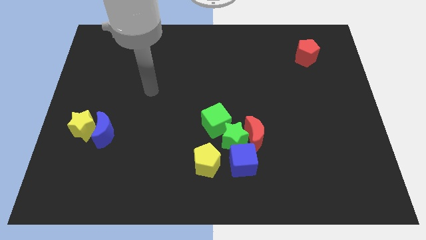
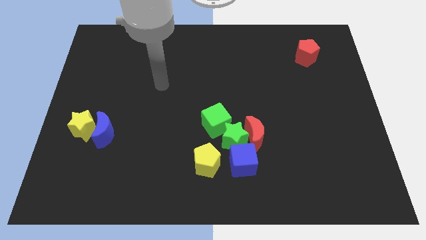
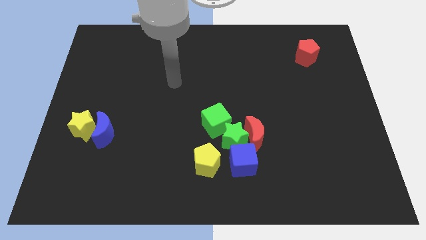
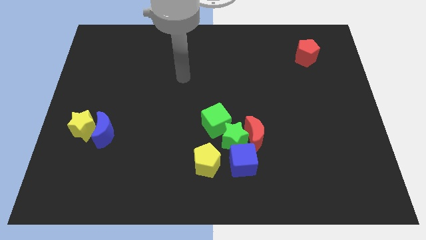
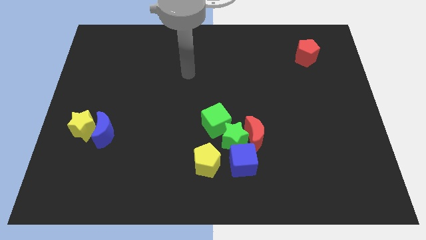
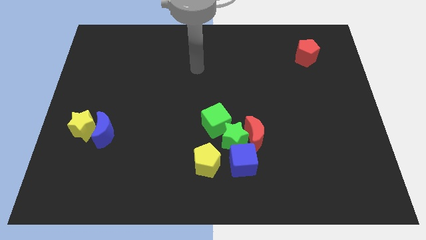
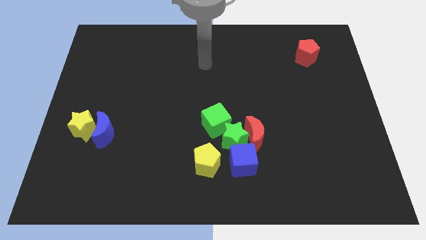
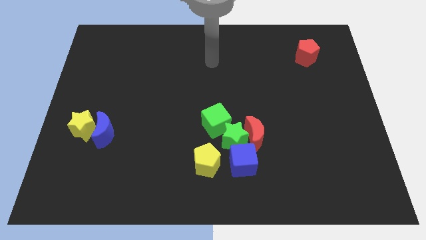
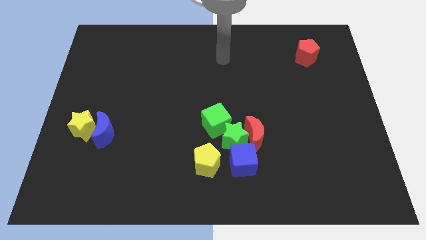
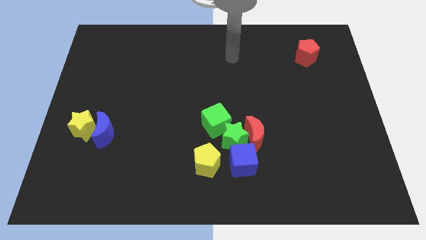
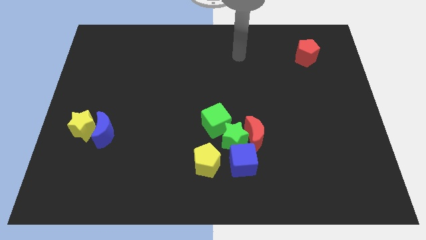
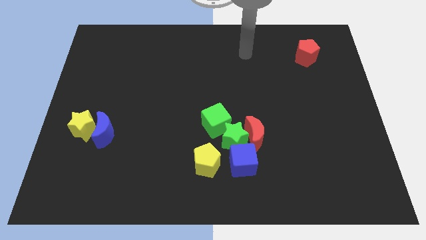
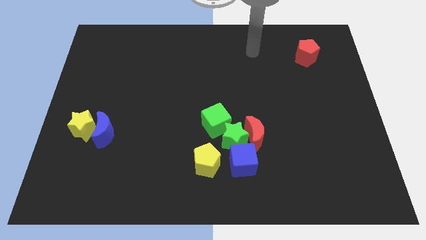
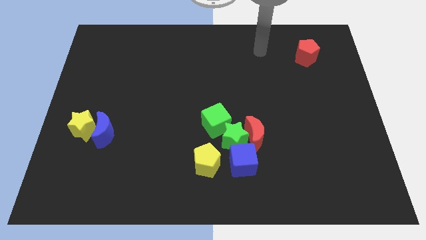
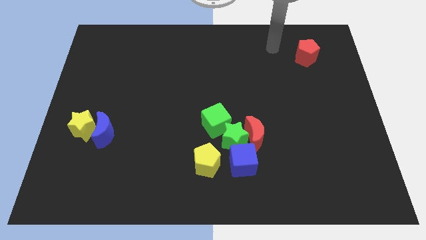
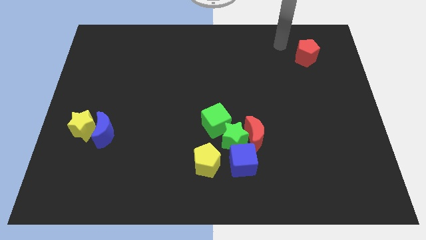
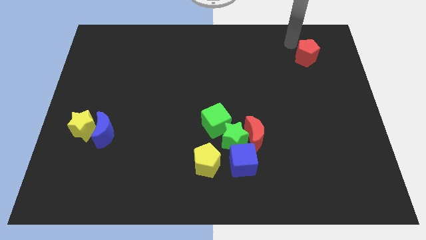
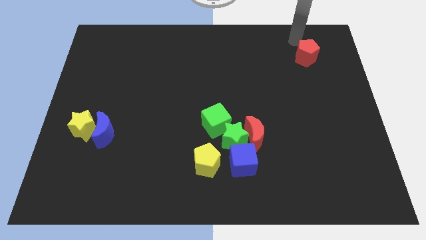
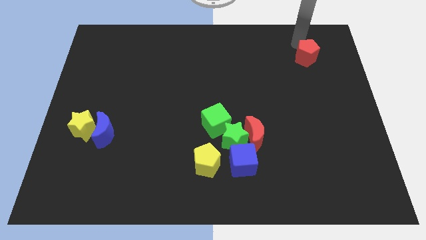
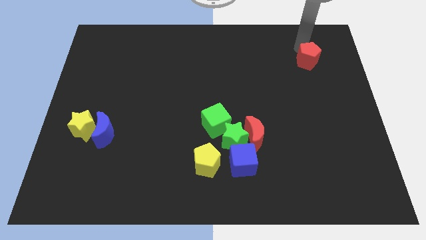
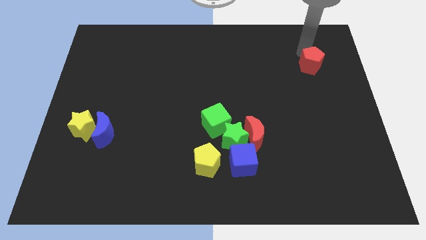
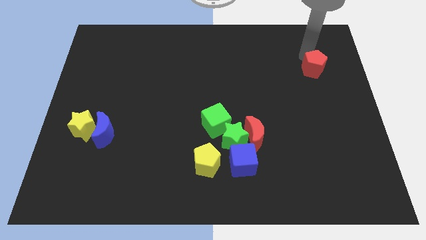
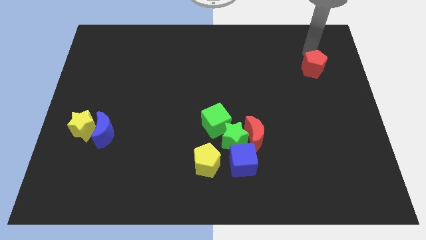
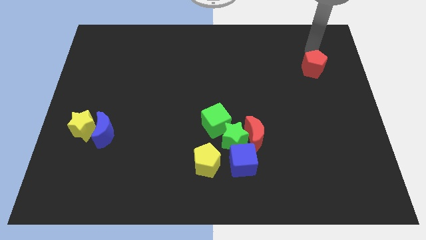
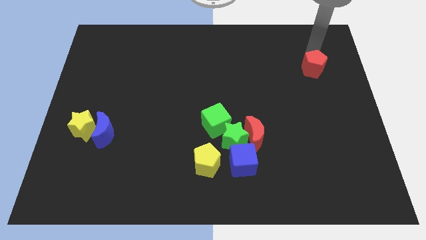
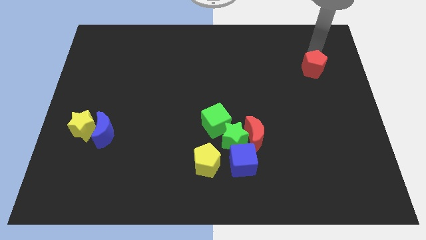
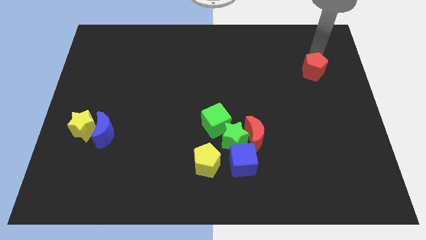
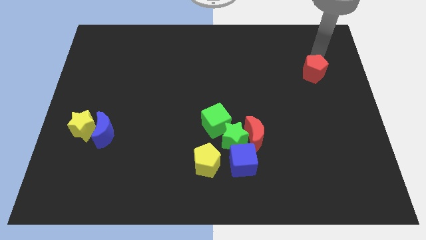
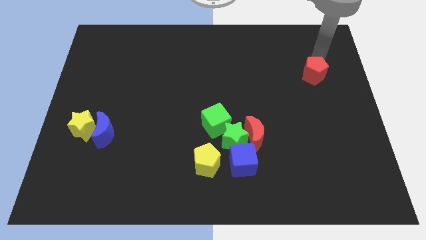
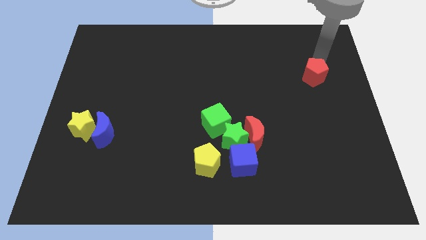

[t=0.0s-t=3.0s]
slightly move the red pentagon downwards

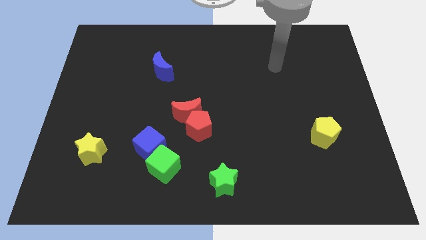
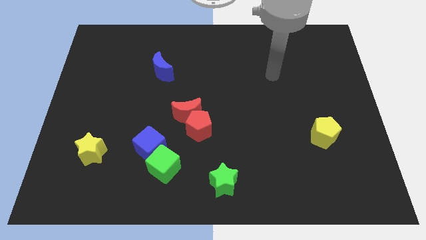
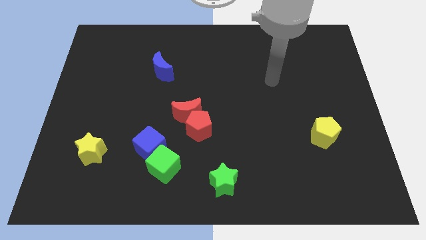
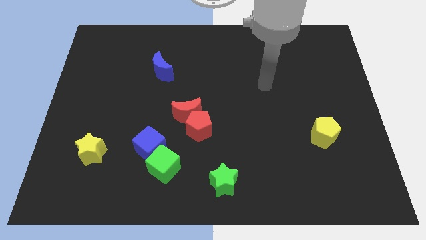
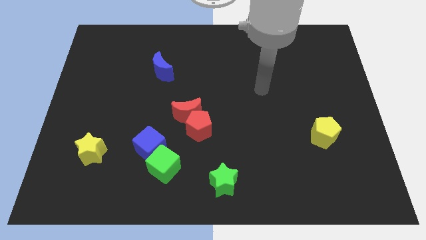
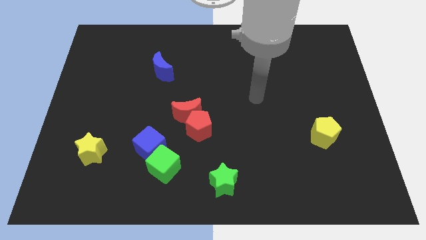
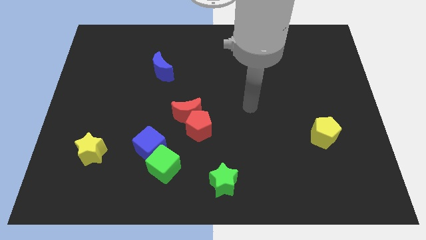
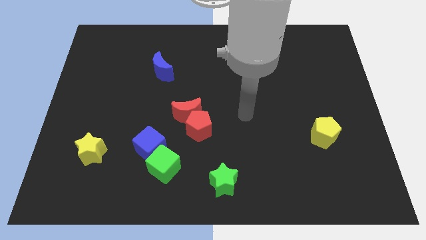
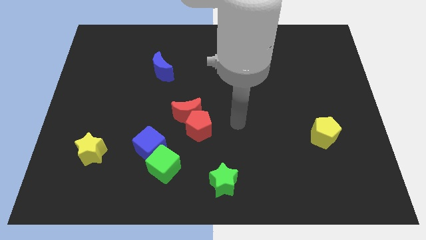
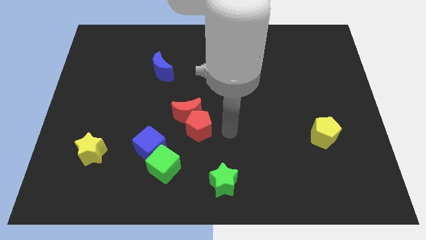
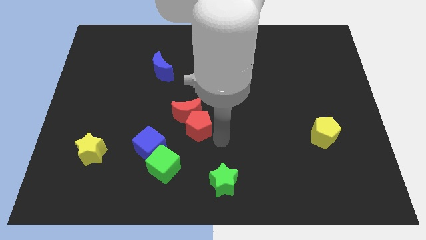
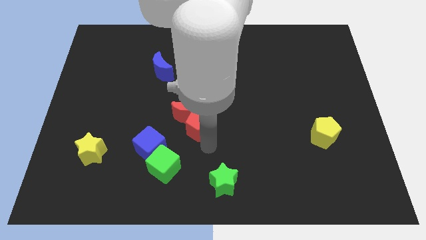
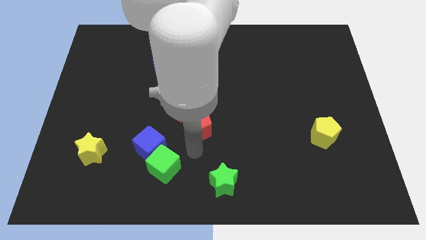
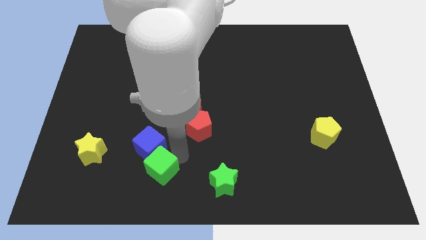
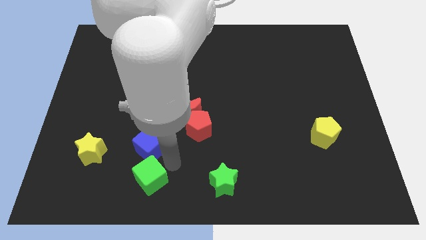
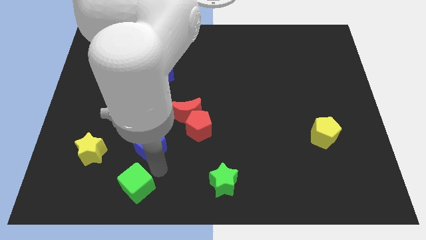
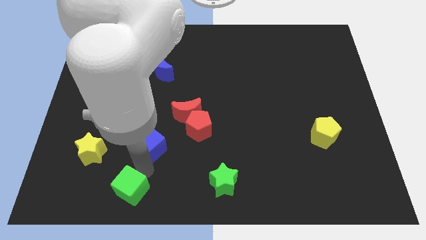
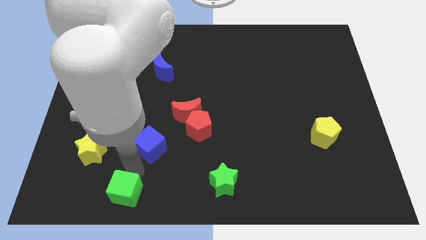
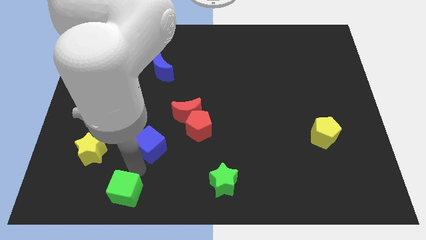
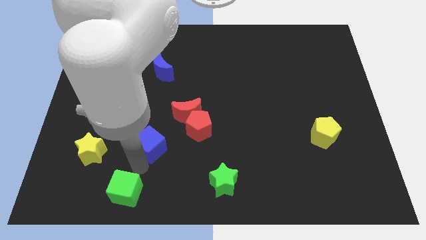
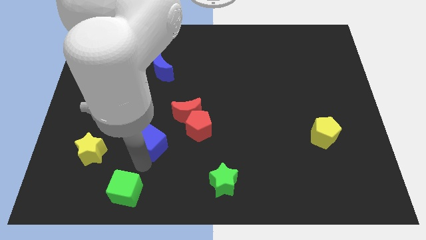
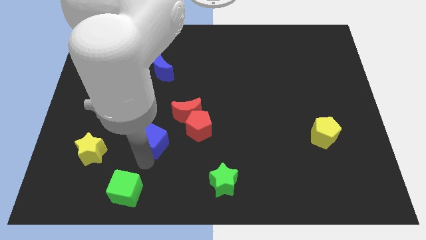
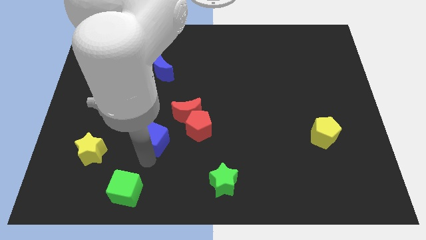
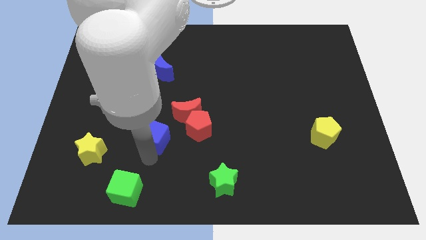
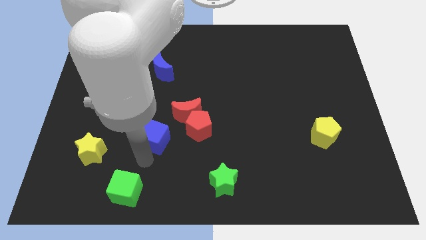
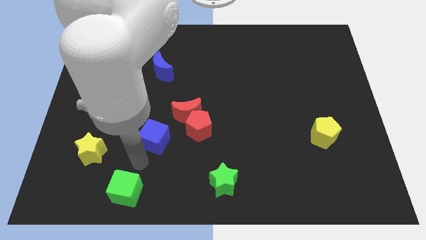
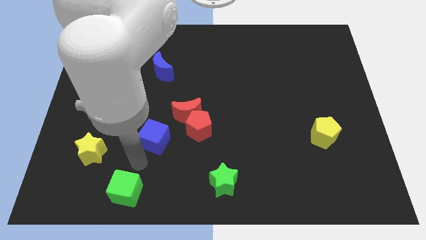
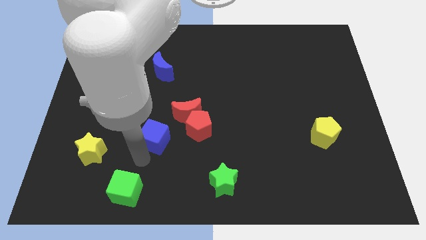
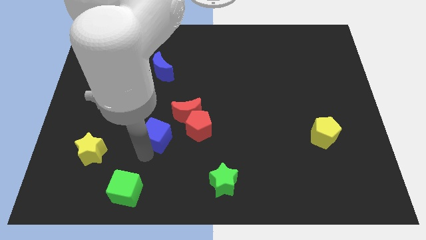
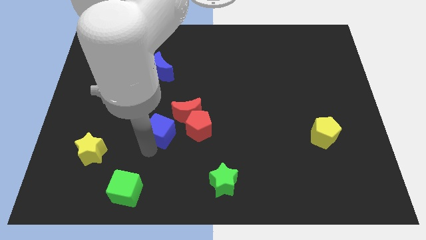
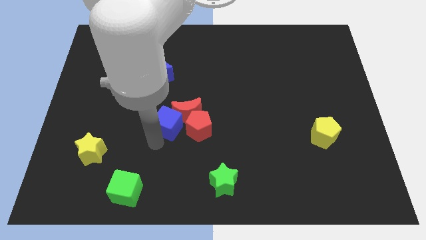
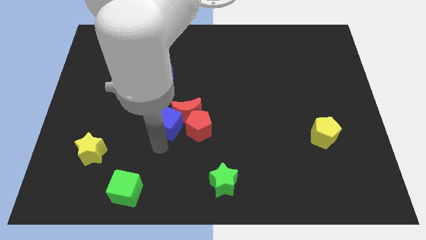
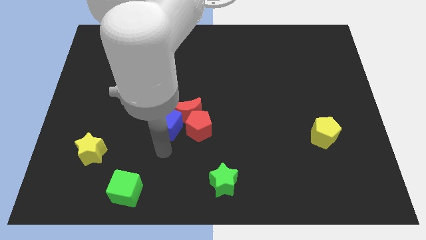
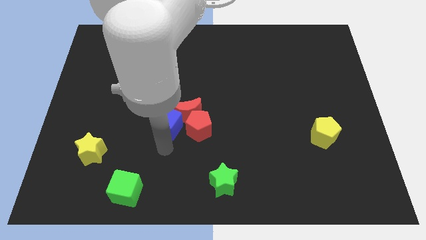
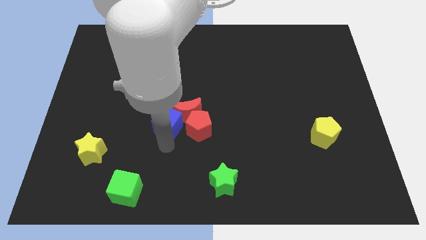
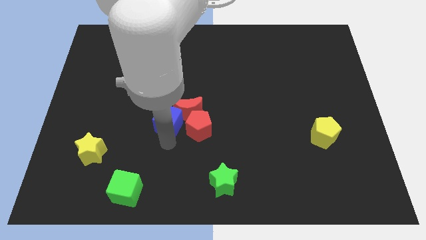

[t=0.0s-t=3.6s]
move the blue cube slightly up and then to the right

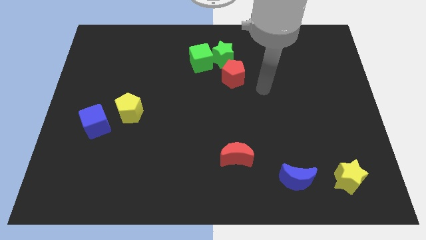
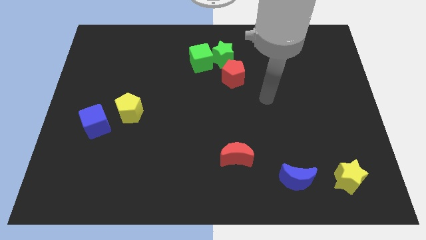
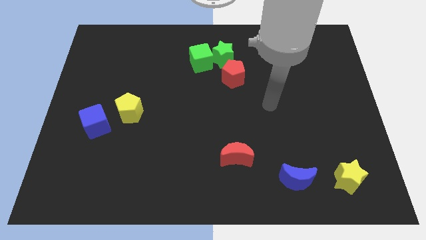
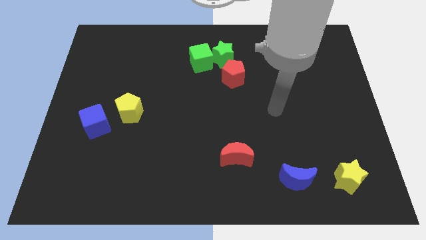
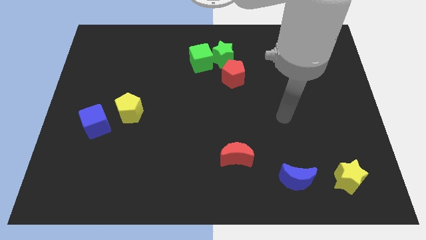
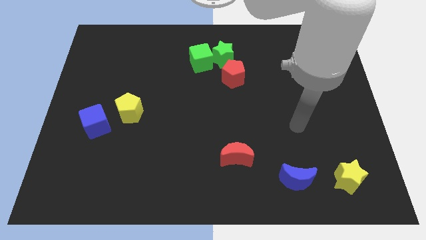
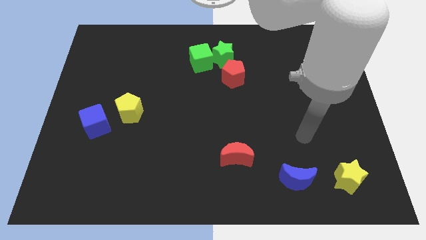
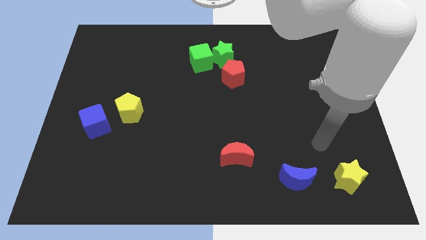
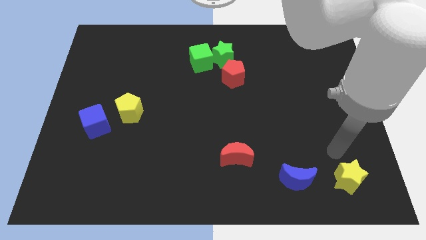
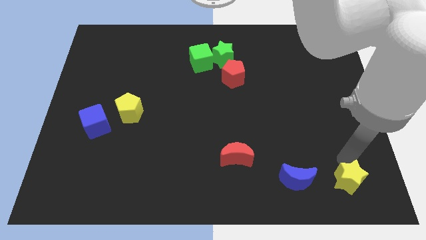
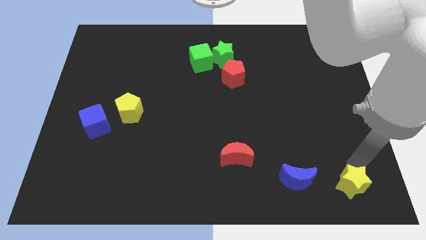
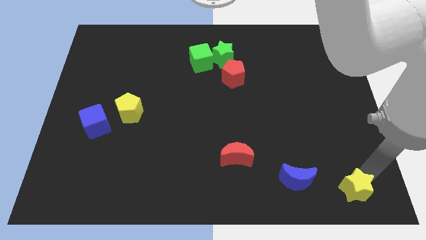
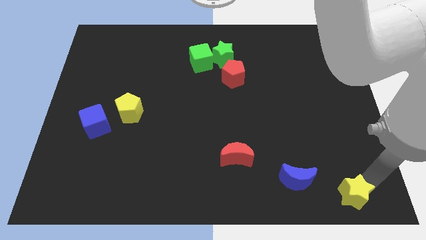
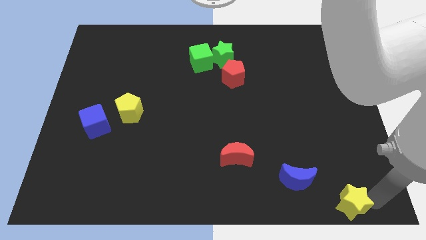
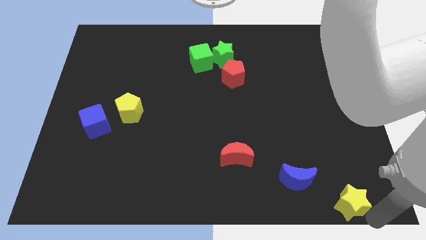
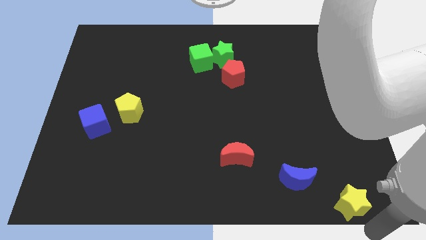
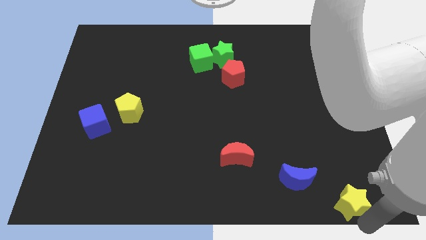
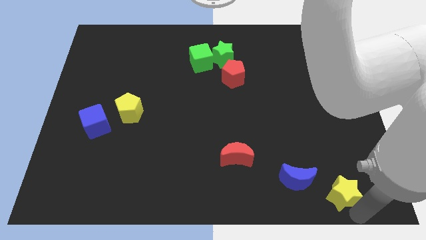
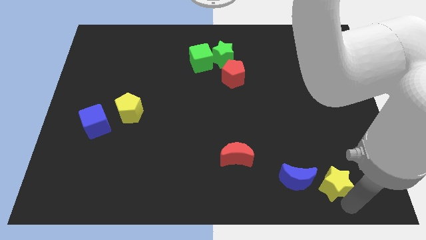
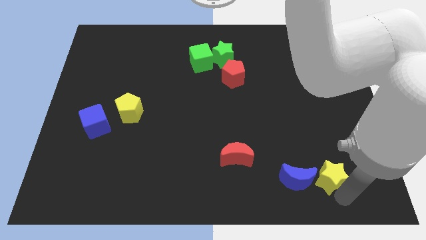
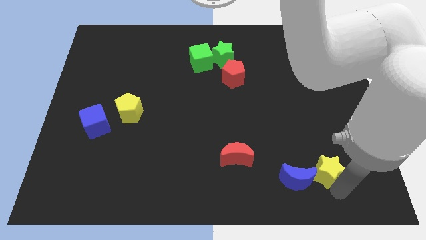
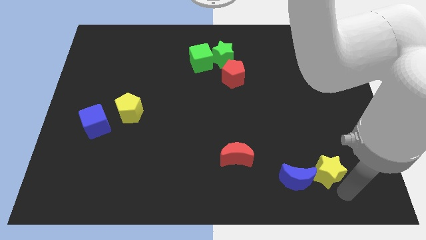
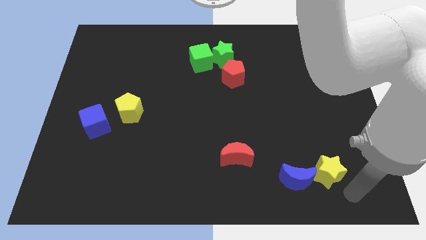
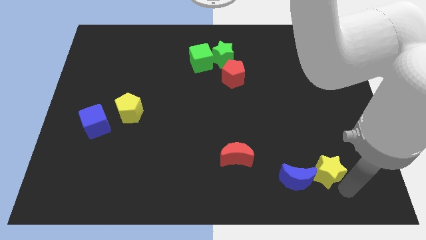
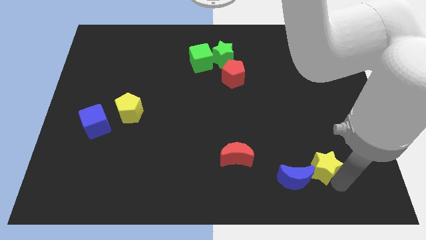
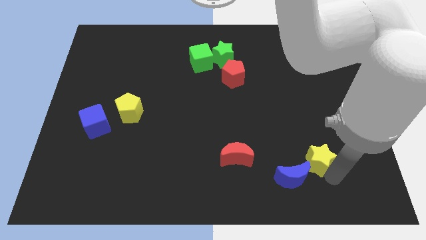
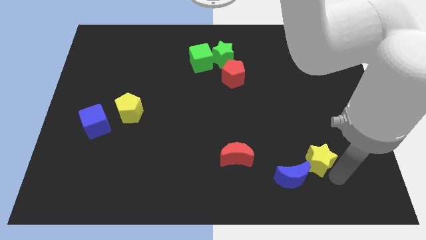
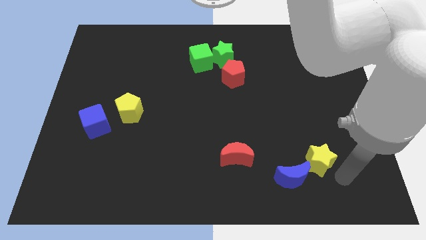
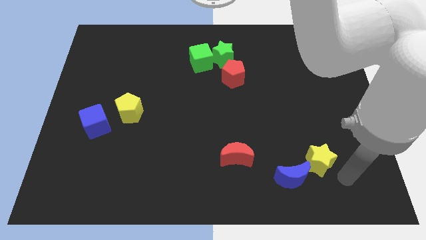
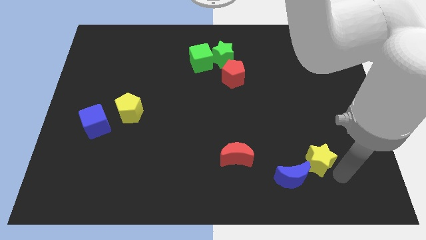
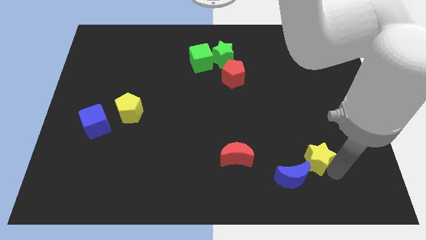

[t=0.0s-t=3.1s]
push the yellow star diagonally upwards and left somewhat
